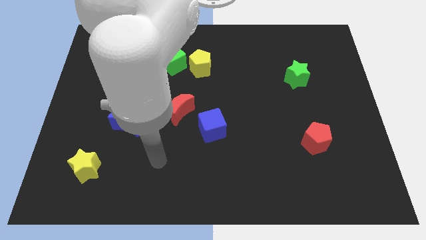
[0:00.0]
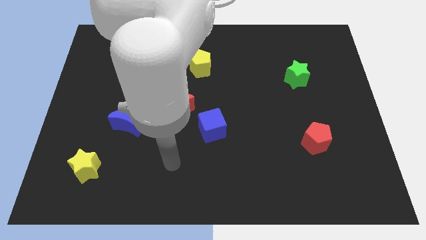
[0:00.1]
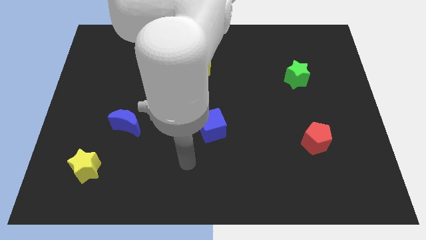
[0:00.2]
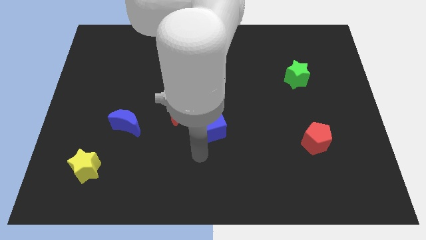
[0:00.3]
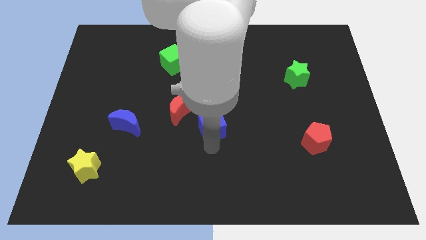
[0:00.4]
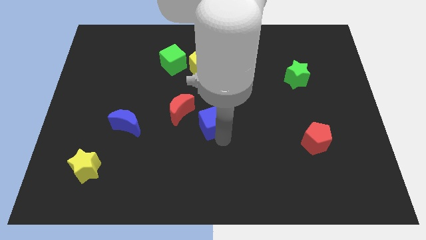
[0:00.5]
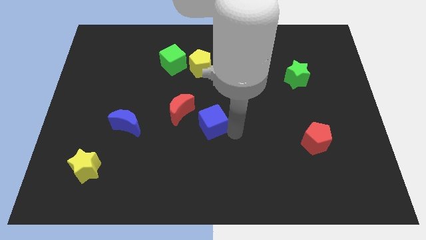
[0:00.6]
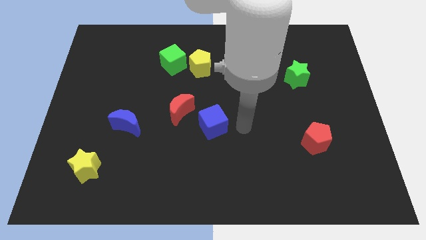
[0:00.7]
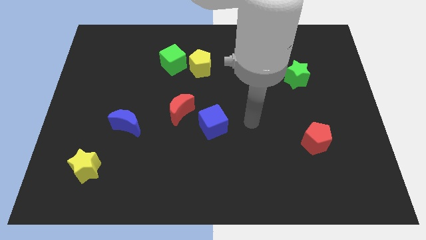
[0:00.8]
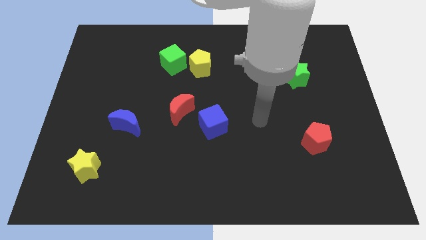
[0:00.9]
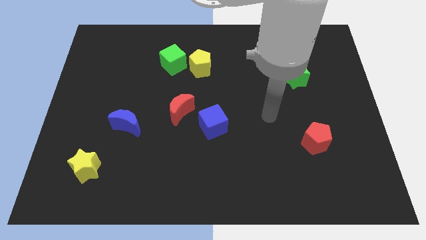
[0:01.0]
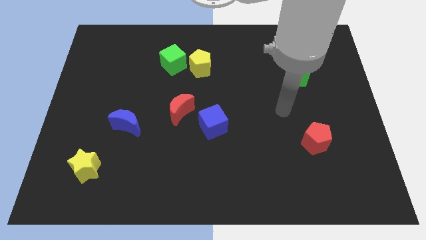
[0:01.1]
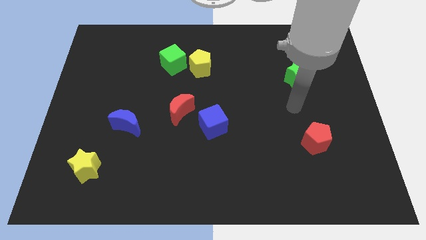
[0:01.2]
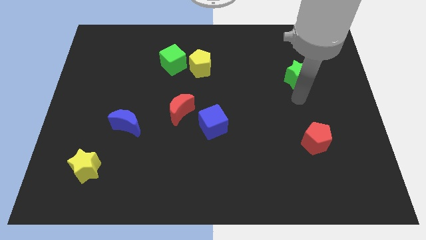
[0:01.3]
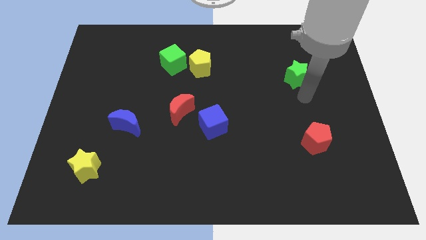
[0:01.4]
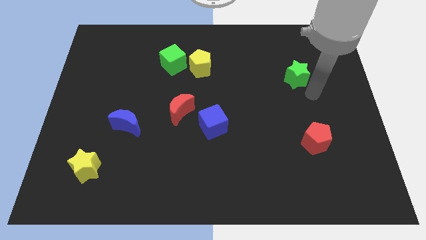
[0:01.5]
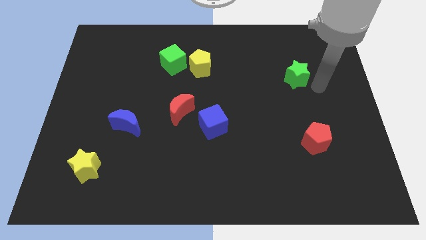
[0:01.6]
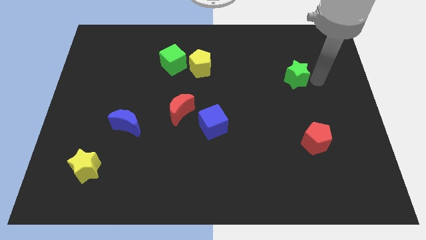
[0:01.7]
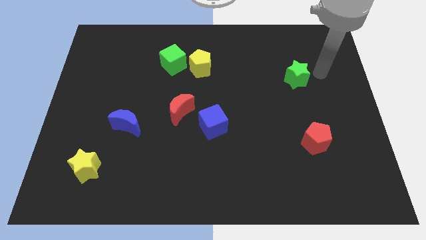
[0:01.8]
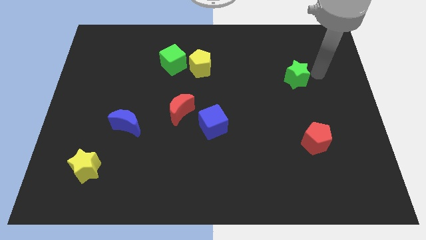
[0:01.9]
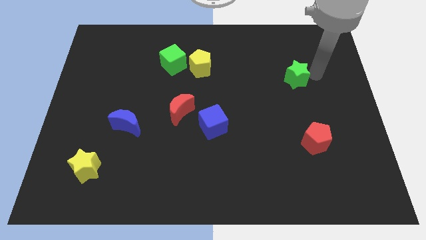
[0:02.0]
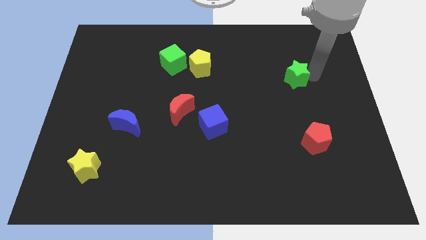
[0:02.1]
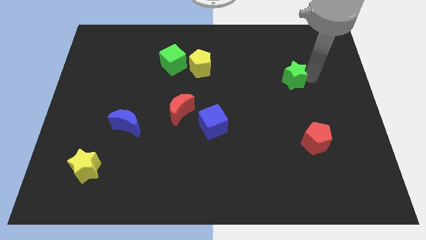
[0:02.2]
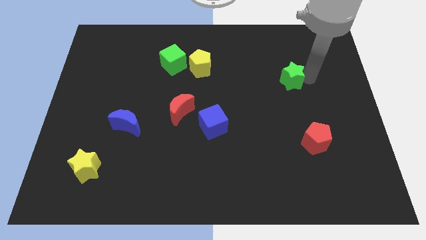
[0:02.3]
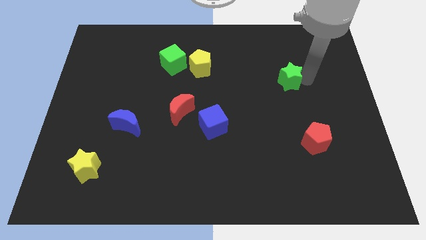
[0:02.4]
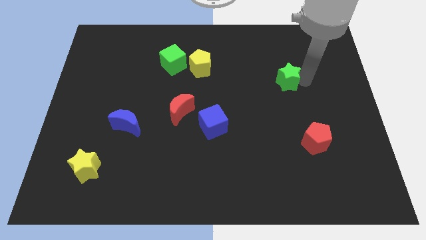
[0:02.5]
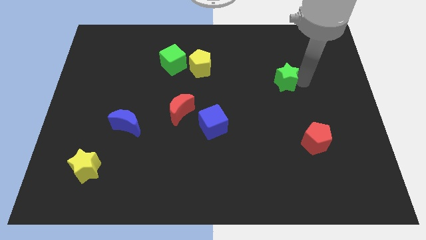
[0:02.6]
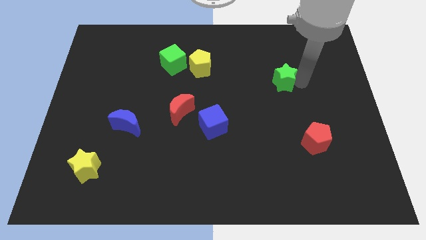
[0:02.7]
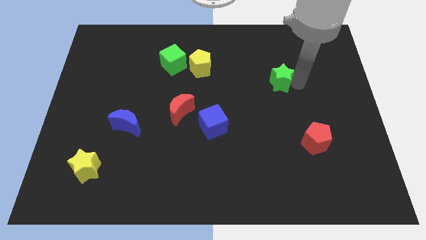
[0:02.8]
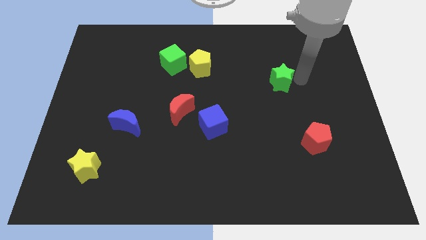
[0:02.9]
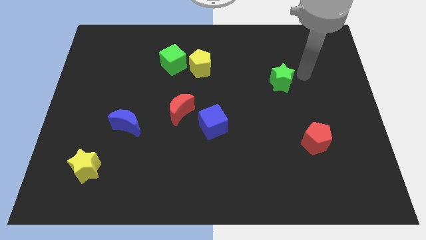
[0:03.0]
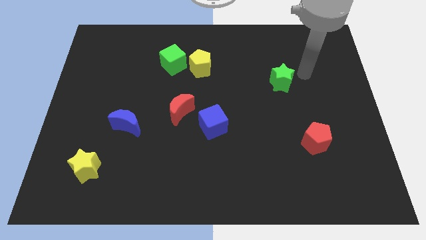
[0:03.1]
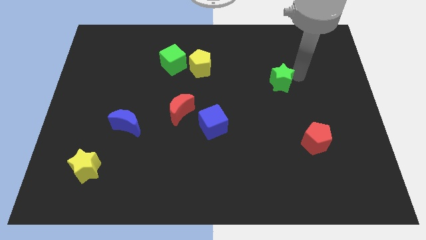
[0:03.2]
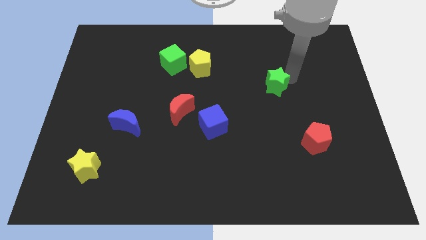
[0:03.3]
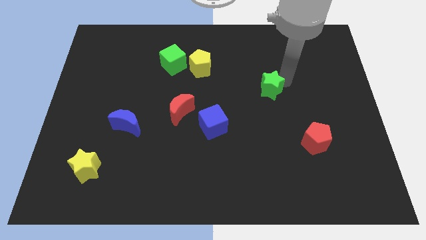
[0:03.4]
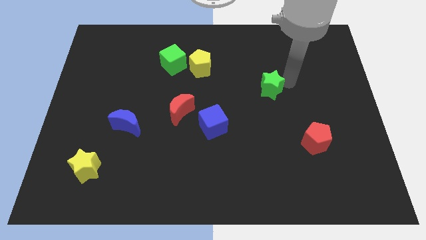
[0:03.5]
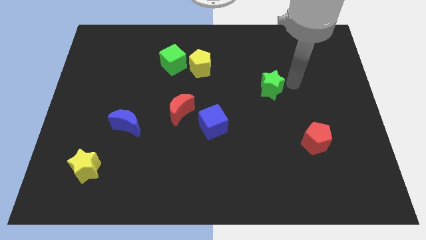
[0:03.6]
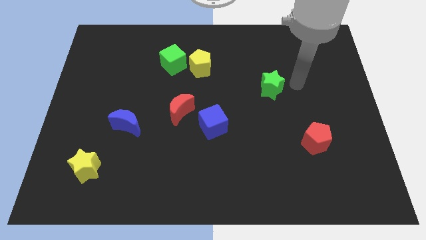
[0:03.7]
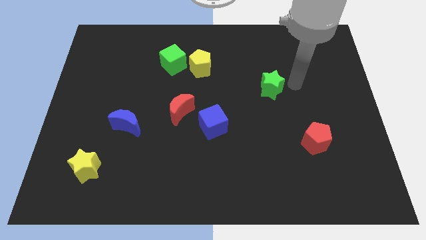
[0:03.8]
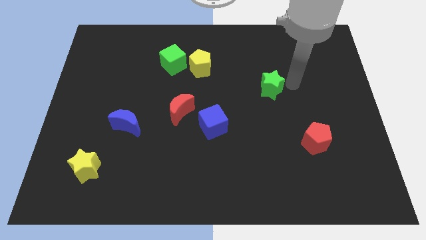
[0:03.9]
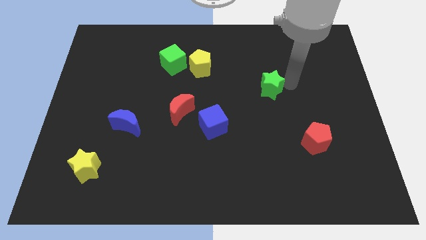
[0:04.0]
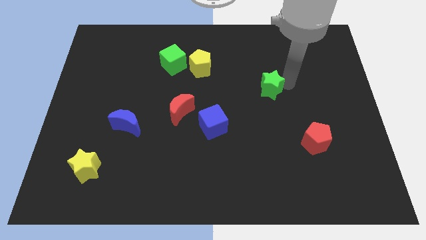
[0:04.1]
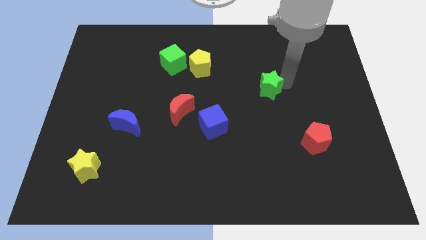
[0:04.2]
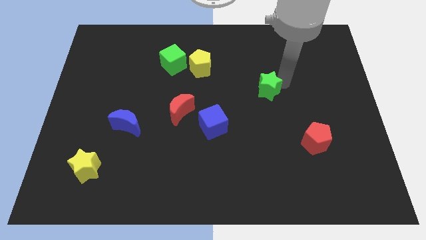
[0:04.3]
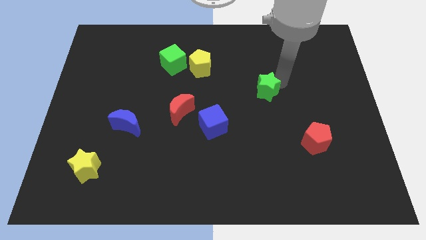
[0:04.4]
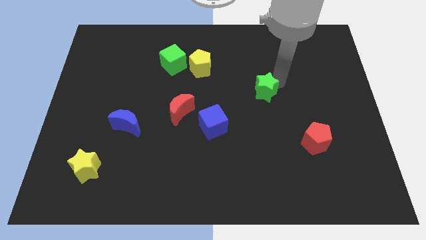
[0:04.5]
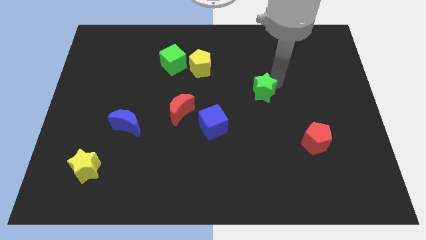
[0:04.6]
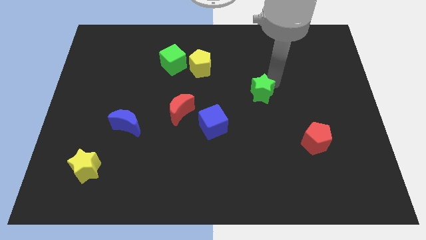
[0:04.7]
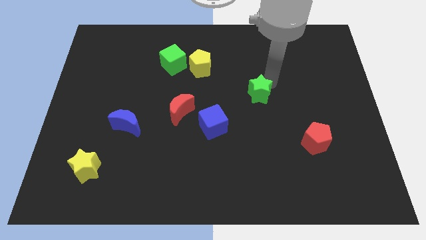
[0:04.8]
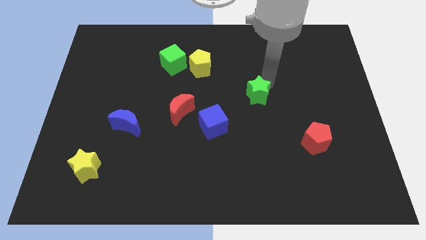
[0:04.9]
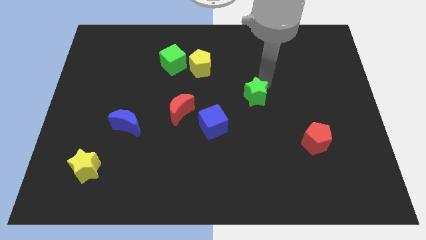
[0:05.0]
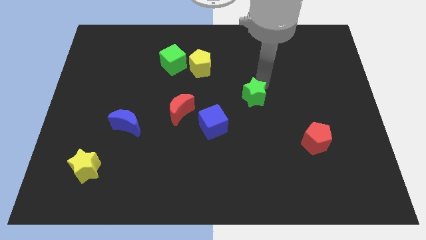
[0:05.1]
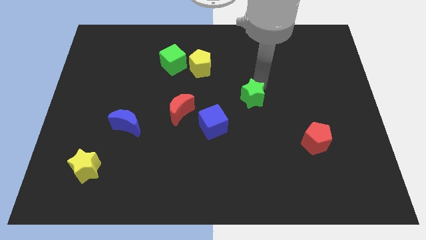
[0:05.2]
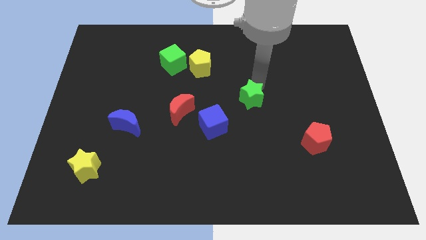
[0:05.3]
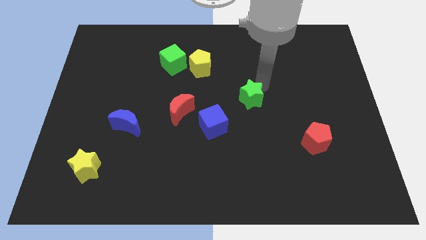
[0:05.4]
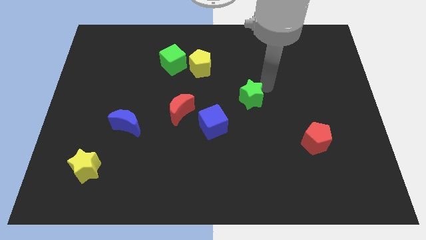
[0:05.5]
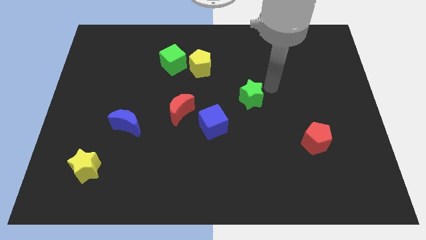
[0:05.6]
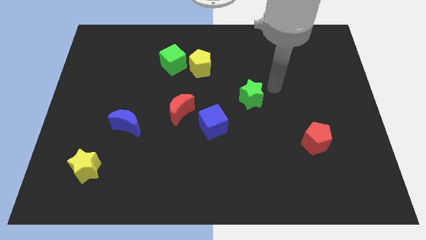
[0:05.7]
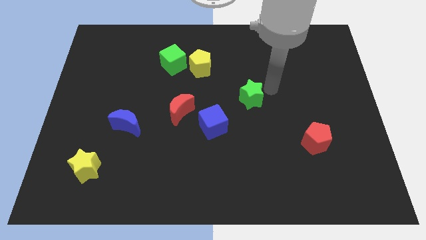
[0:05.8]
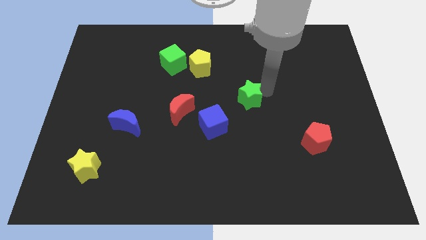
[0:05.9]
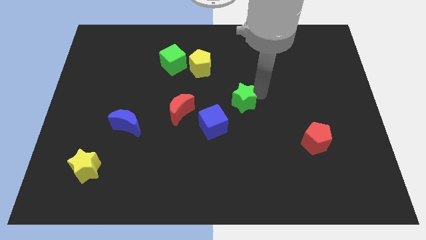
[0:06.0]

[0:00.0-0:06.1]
push the green star right of the red moon

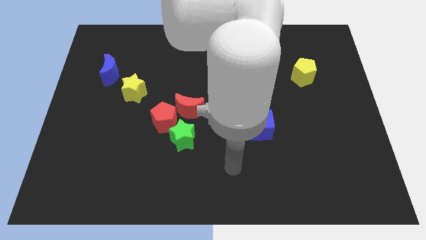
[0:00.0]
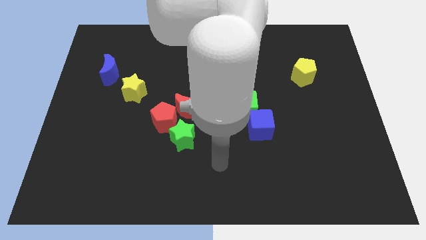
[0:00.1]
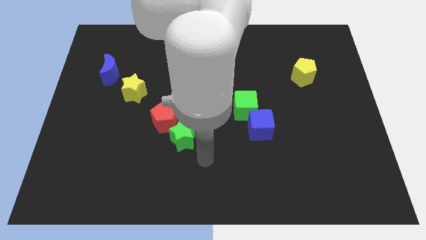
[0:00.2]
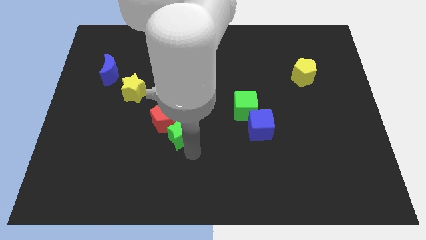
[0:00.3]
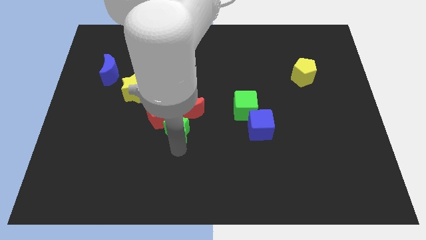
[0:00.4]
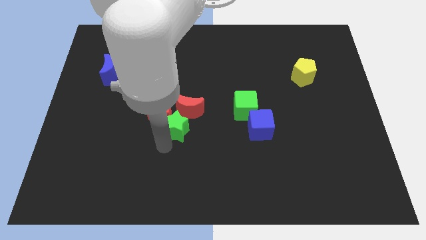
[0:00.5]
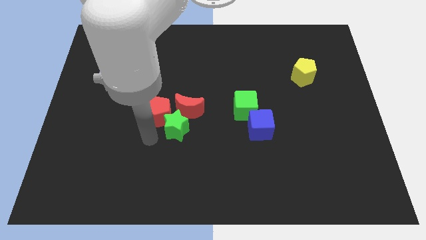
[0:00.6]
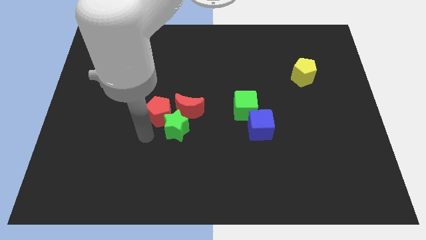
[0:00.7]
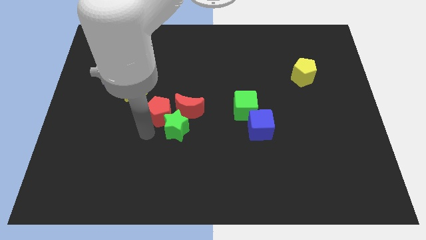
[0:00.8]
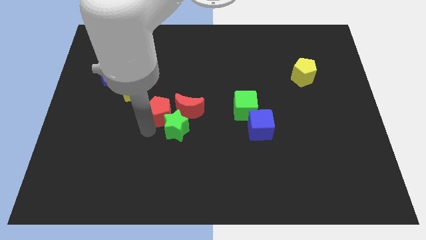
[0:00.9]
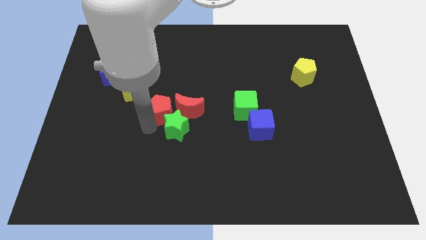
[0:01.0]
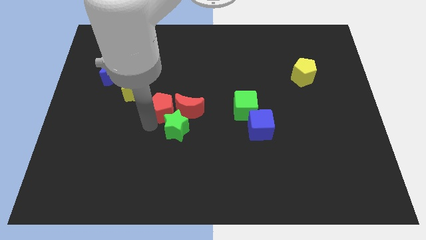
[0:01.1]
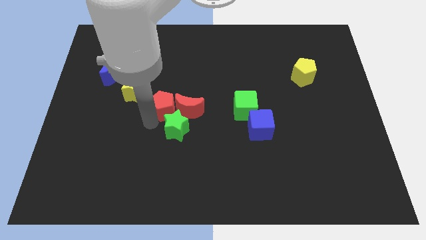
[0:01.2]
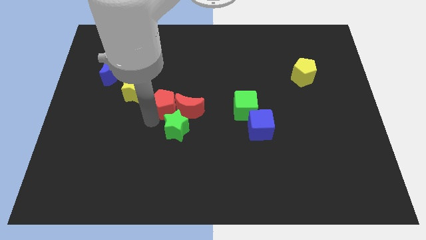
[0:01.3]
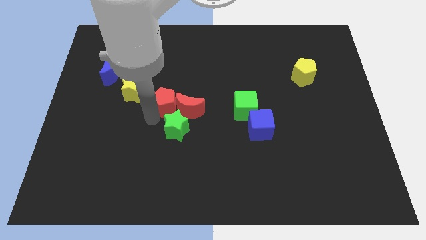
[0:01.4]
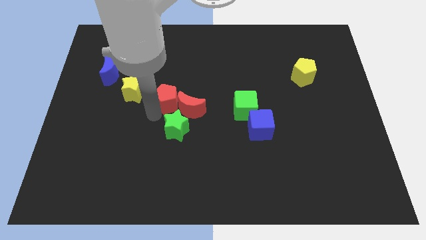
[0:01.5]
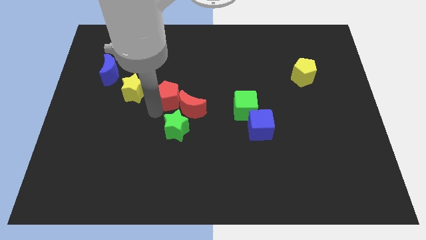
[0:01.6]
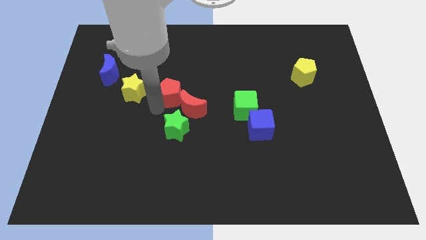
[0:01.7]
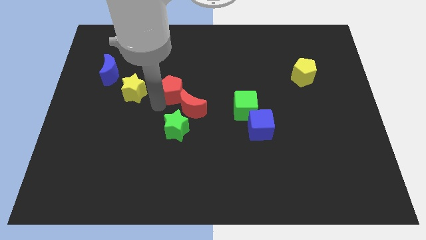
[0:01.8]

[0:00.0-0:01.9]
put the red pentagon above the red moon
